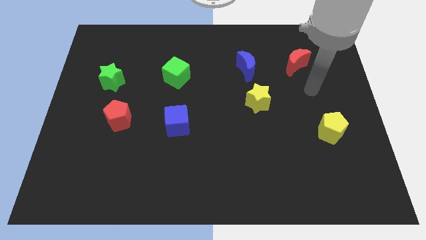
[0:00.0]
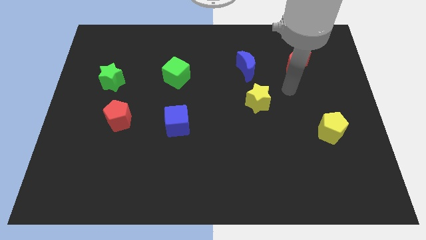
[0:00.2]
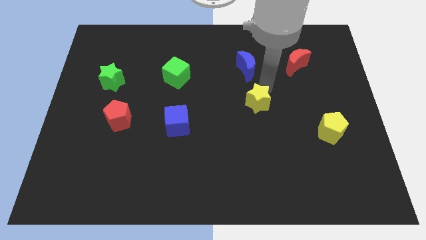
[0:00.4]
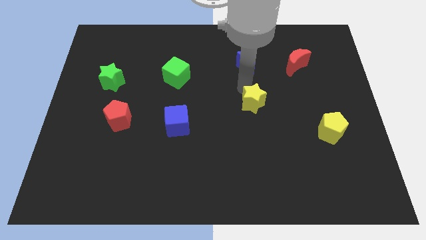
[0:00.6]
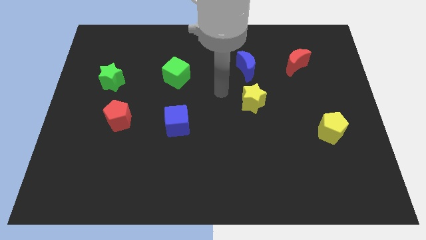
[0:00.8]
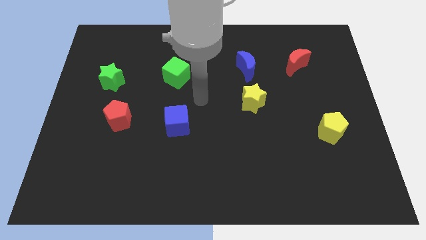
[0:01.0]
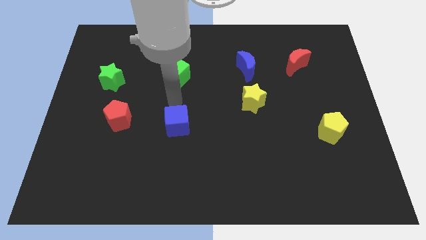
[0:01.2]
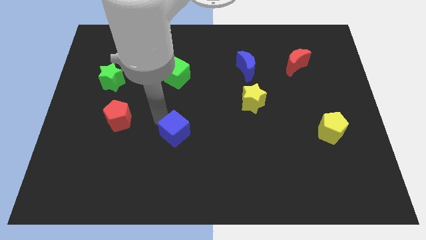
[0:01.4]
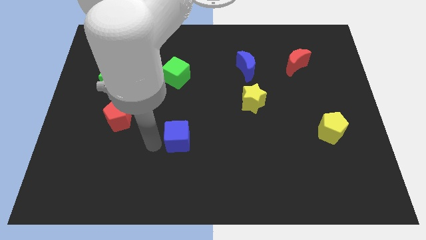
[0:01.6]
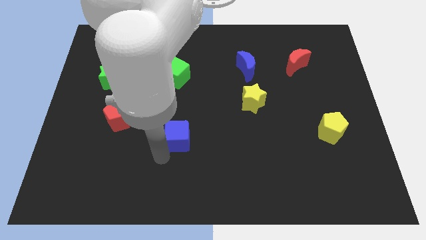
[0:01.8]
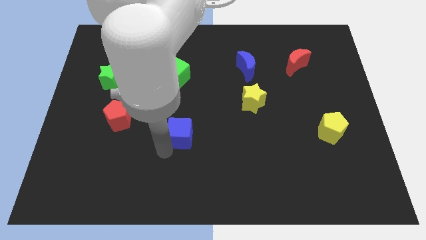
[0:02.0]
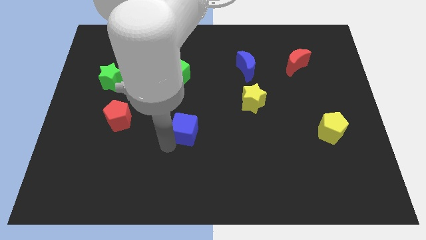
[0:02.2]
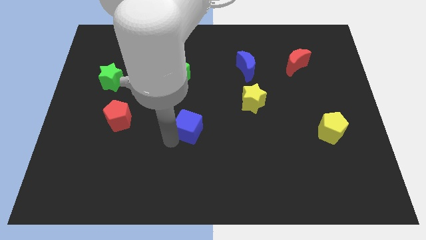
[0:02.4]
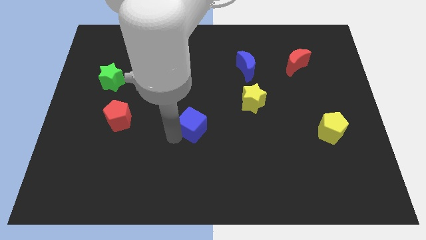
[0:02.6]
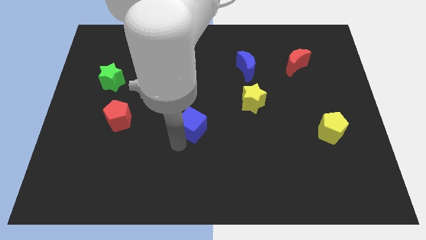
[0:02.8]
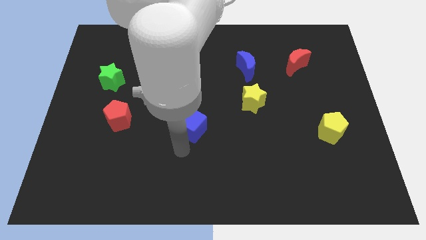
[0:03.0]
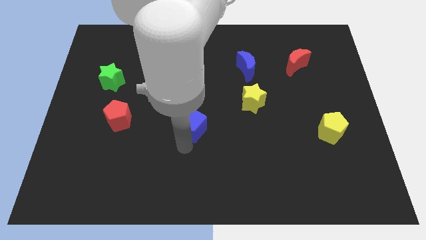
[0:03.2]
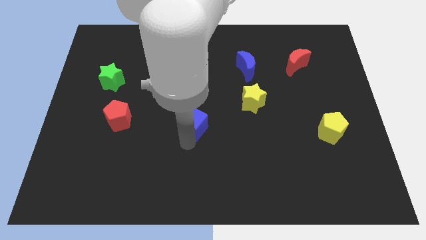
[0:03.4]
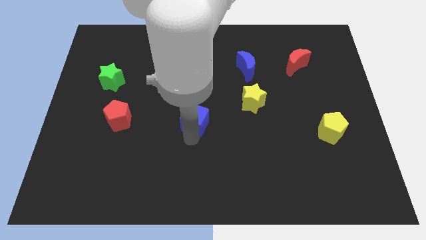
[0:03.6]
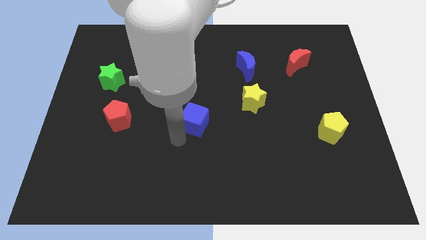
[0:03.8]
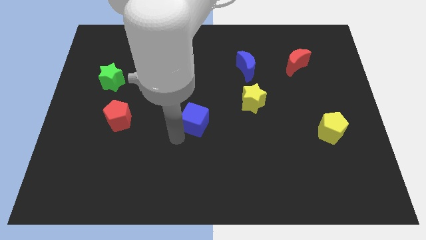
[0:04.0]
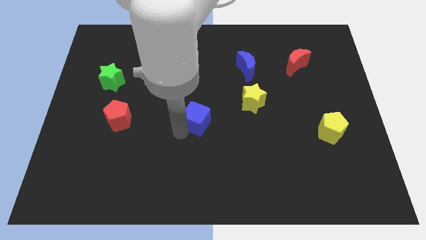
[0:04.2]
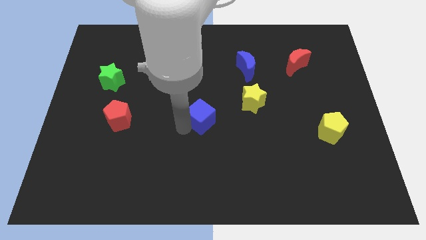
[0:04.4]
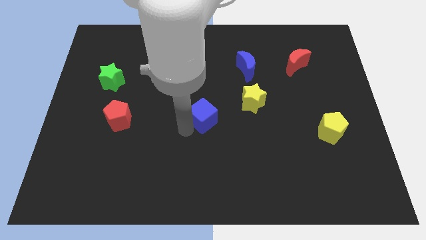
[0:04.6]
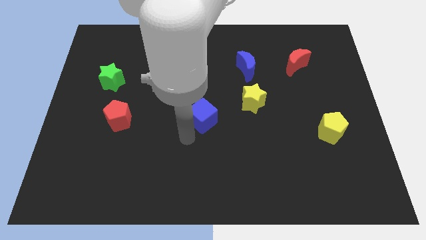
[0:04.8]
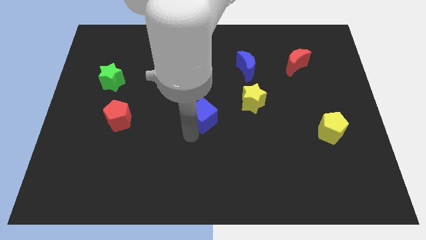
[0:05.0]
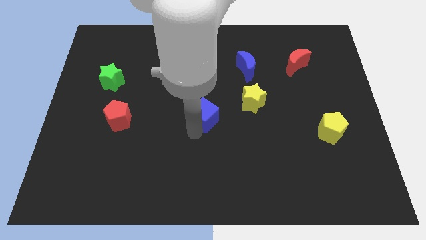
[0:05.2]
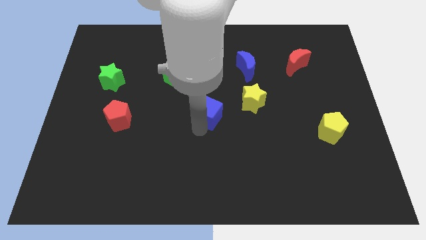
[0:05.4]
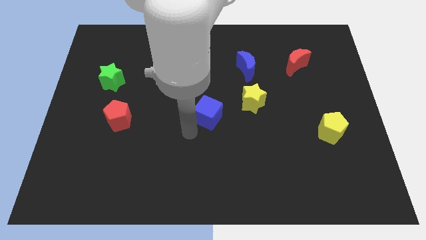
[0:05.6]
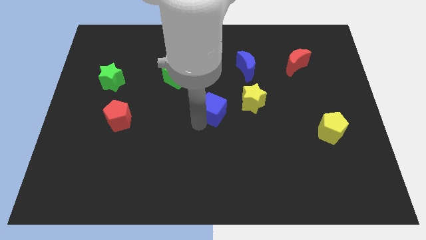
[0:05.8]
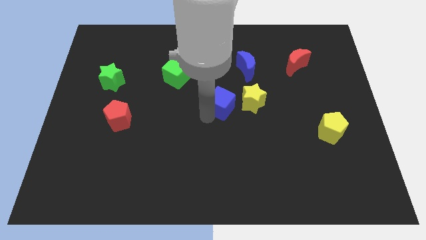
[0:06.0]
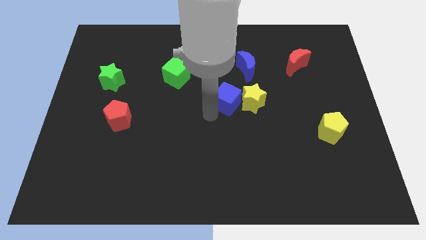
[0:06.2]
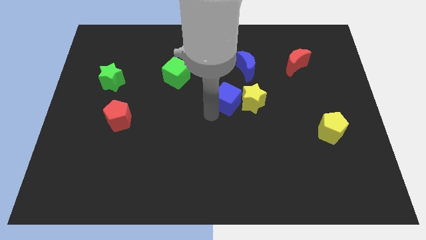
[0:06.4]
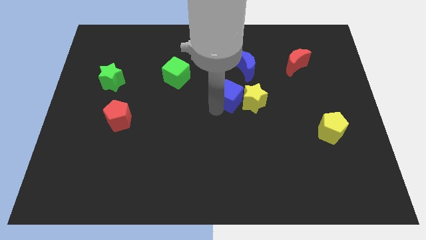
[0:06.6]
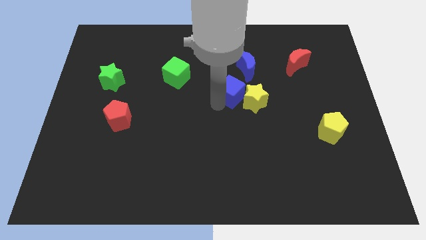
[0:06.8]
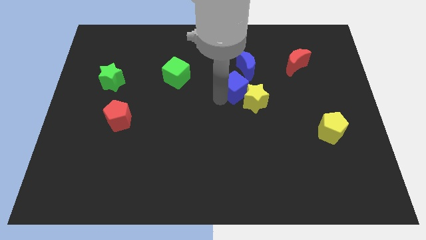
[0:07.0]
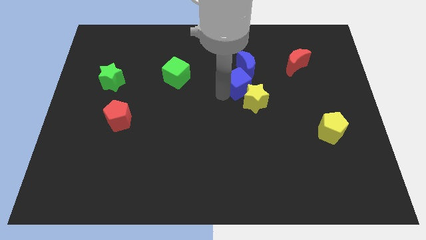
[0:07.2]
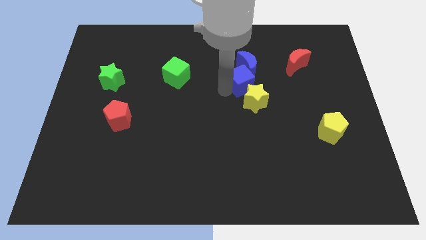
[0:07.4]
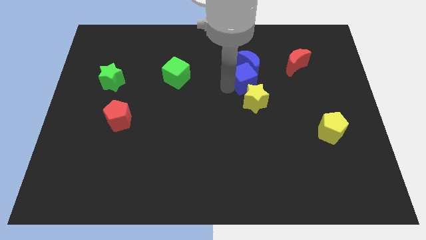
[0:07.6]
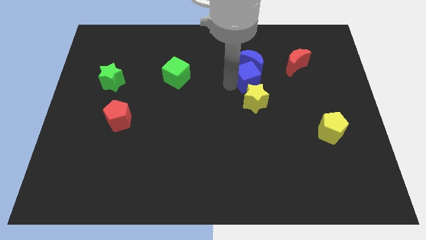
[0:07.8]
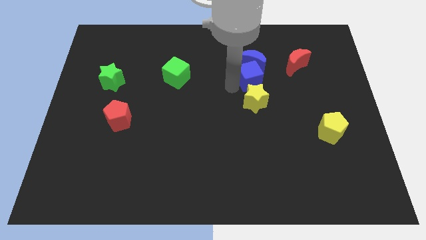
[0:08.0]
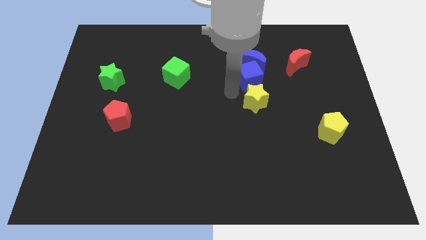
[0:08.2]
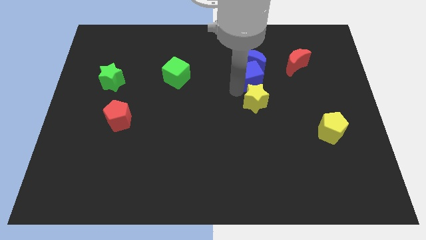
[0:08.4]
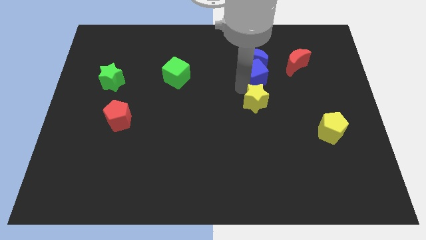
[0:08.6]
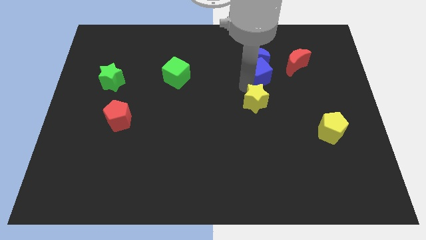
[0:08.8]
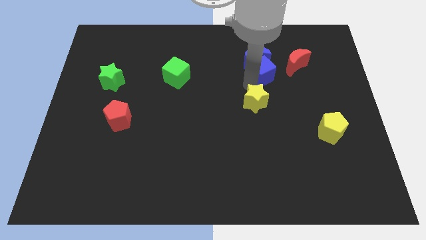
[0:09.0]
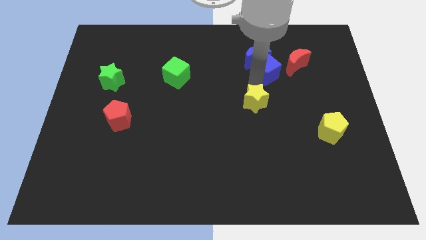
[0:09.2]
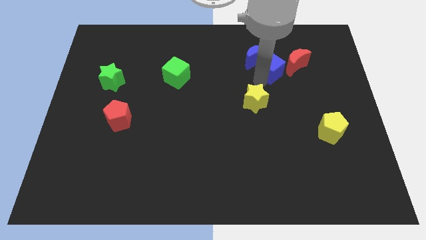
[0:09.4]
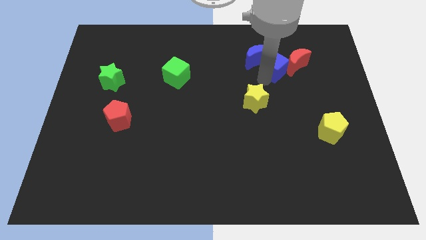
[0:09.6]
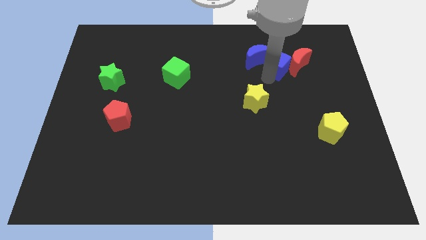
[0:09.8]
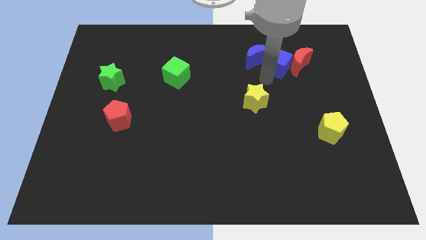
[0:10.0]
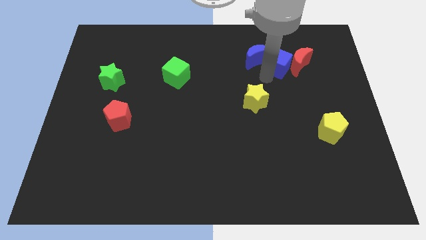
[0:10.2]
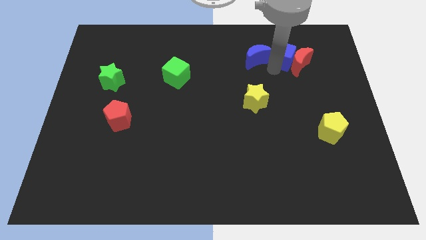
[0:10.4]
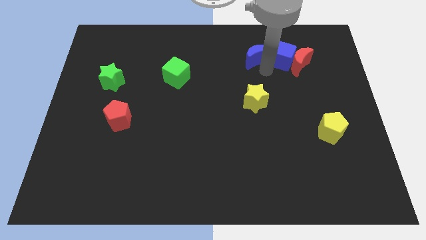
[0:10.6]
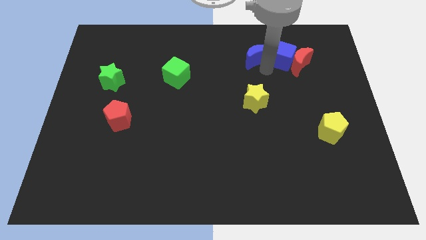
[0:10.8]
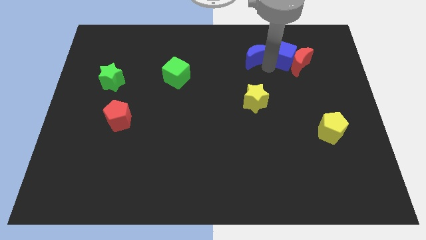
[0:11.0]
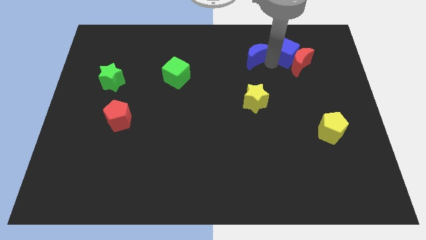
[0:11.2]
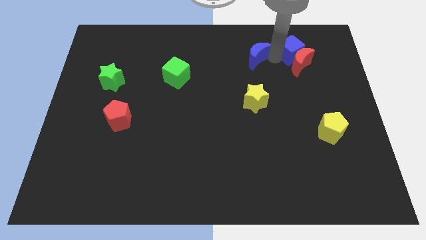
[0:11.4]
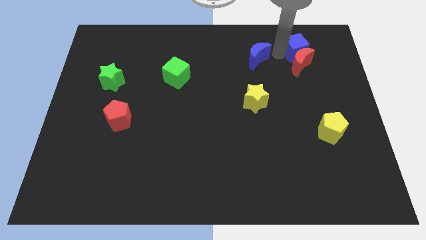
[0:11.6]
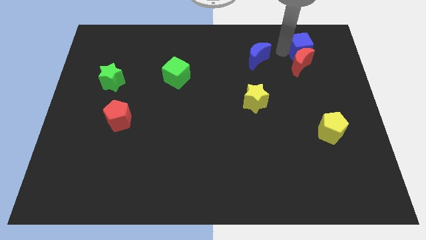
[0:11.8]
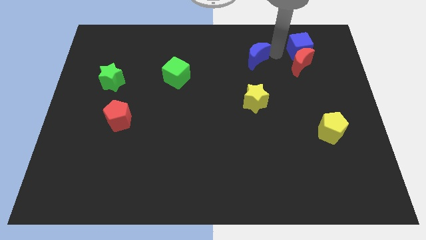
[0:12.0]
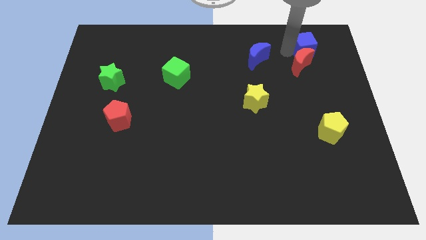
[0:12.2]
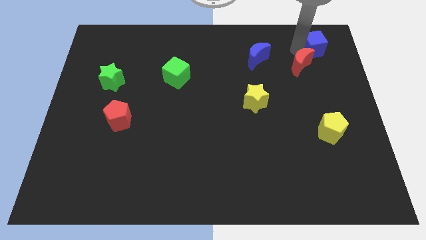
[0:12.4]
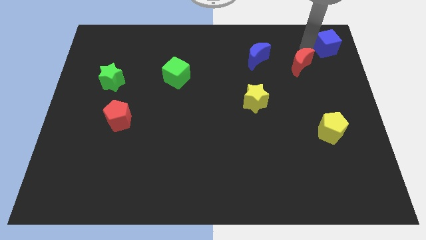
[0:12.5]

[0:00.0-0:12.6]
put the blue cube to the top right
